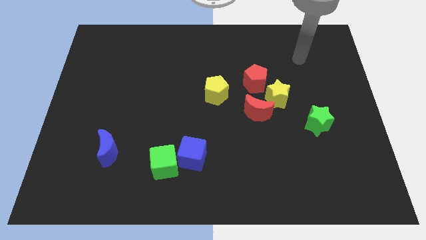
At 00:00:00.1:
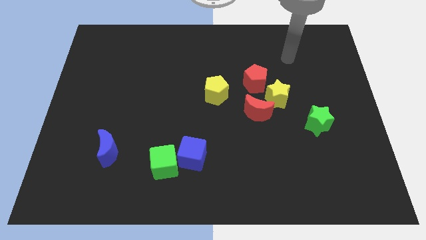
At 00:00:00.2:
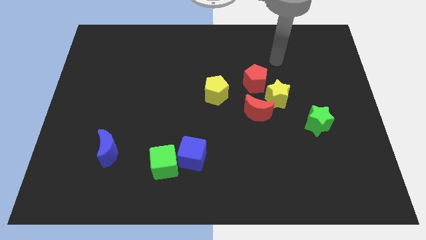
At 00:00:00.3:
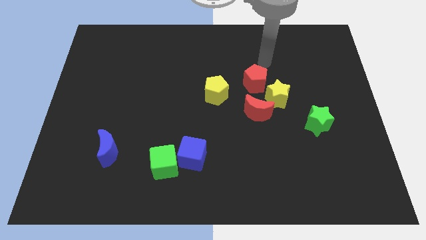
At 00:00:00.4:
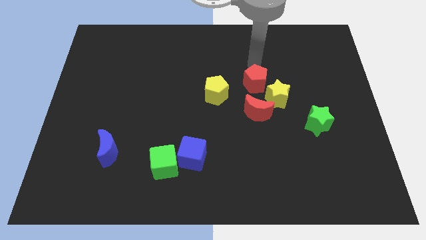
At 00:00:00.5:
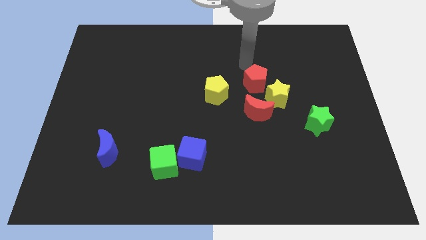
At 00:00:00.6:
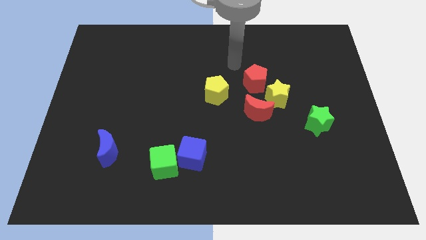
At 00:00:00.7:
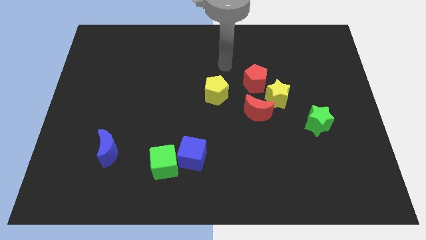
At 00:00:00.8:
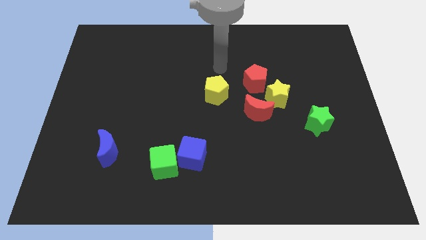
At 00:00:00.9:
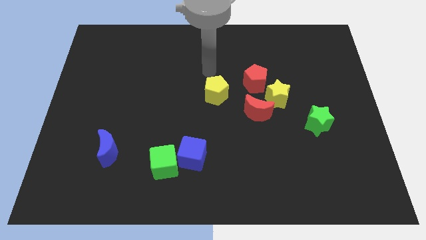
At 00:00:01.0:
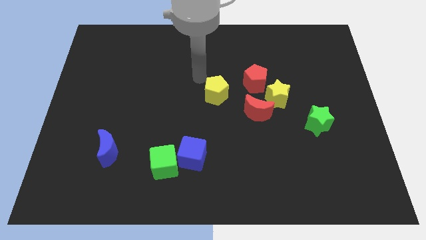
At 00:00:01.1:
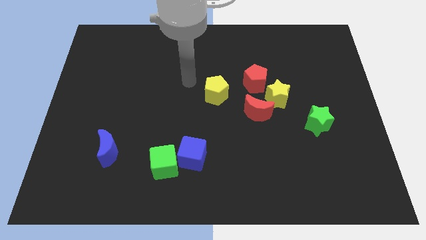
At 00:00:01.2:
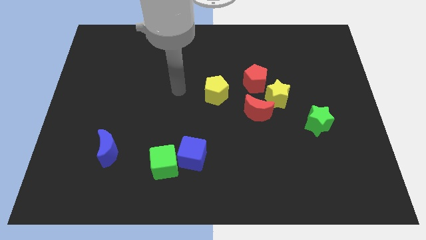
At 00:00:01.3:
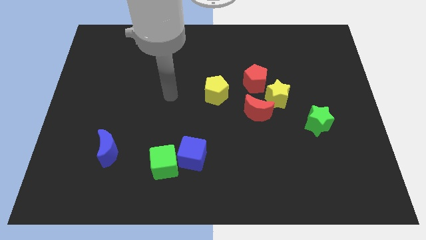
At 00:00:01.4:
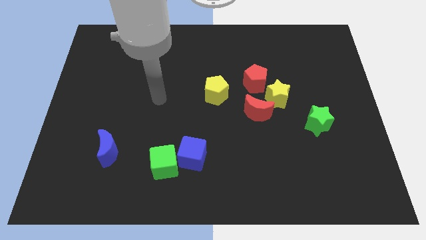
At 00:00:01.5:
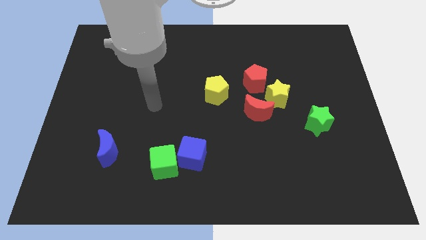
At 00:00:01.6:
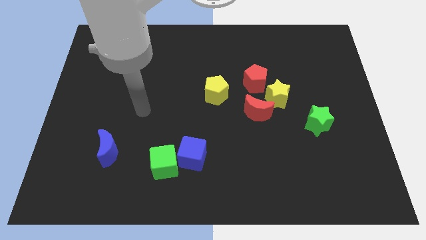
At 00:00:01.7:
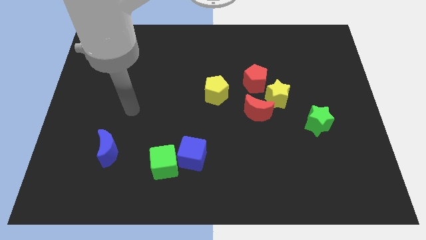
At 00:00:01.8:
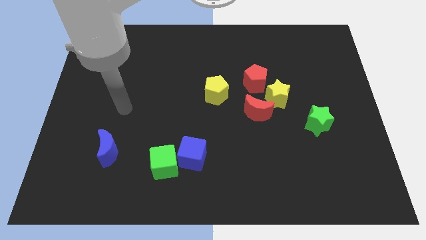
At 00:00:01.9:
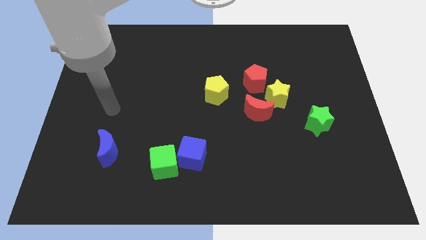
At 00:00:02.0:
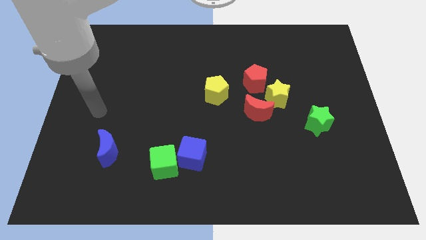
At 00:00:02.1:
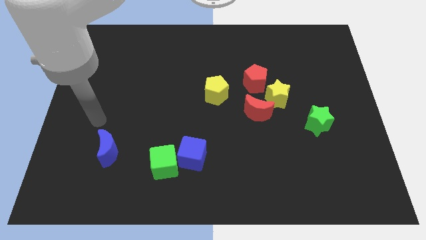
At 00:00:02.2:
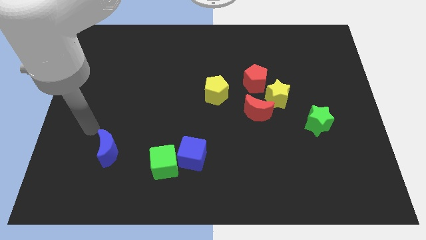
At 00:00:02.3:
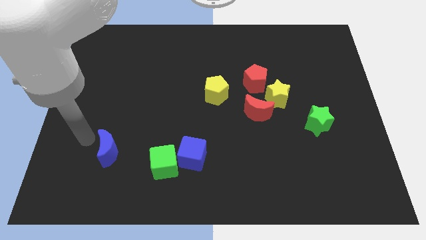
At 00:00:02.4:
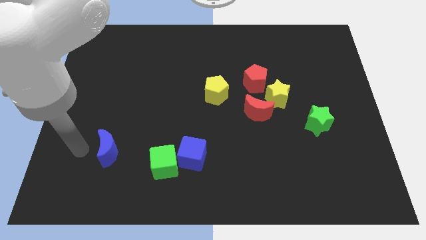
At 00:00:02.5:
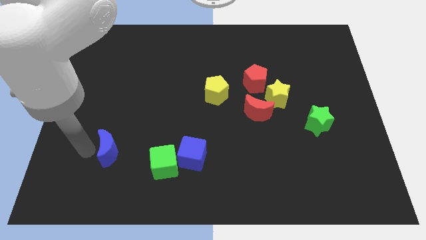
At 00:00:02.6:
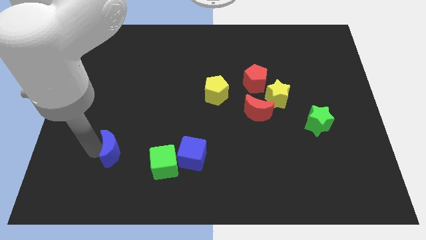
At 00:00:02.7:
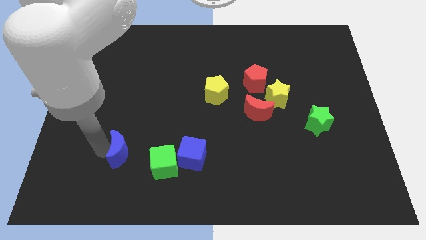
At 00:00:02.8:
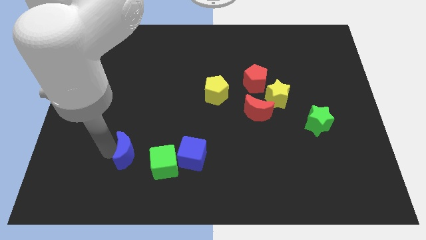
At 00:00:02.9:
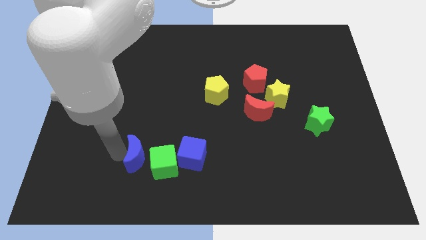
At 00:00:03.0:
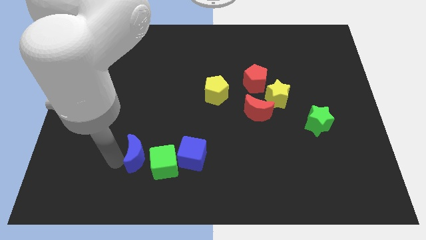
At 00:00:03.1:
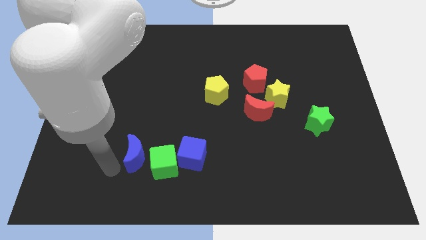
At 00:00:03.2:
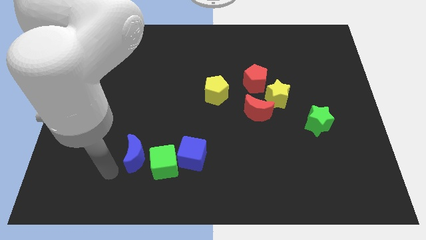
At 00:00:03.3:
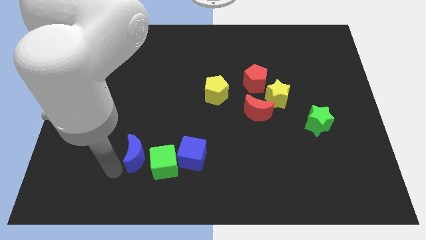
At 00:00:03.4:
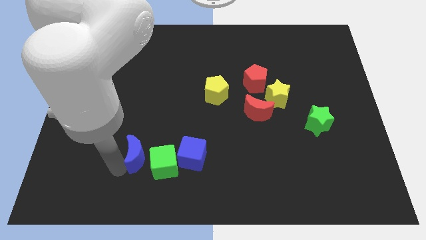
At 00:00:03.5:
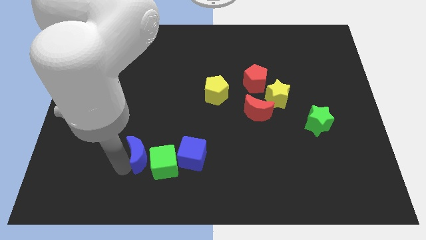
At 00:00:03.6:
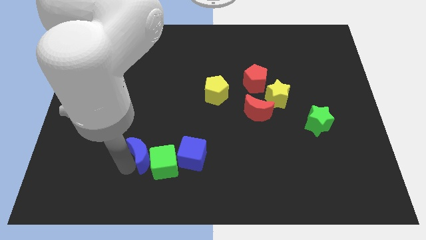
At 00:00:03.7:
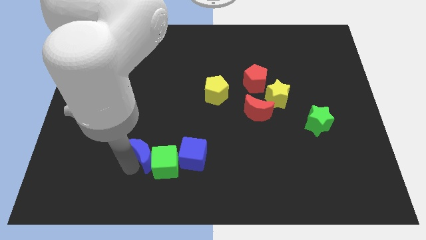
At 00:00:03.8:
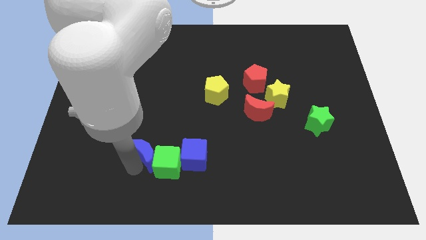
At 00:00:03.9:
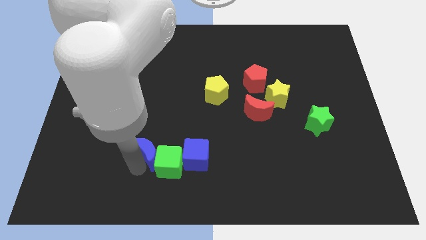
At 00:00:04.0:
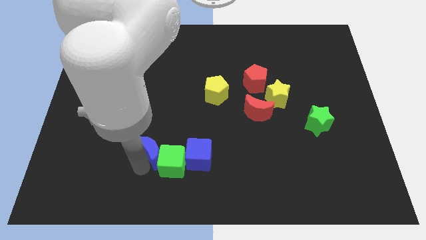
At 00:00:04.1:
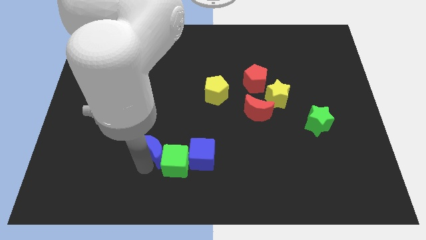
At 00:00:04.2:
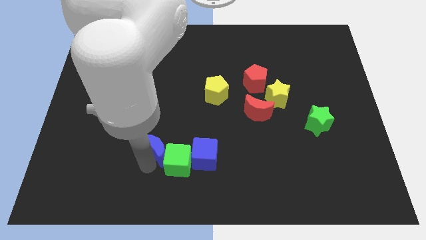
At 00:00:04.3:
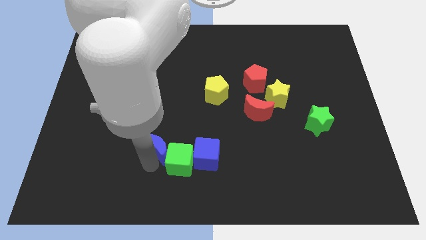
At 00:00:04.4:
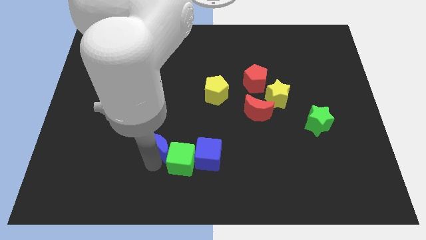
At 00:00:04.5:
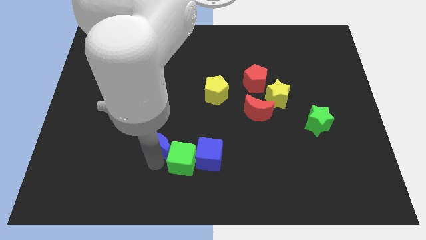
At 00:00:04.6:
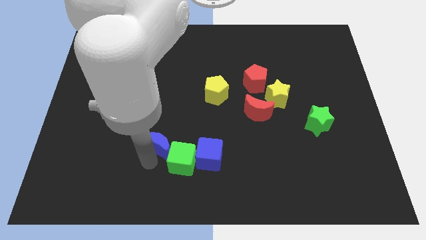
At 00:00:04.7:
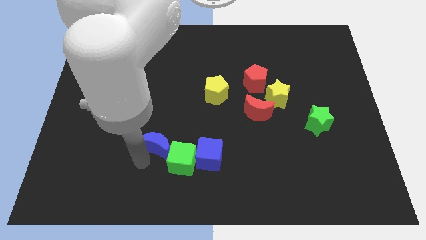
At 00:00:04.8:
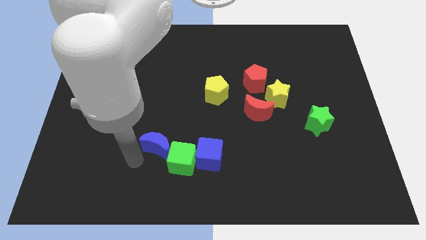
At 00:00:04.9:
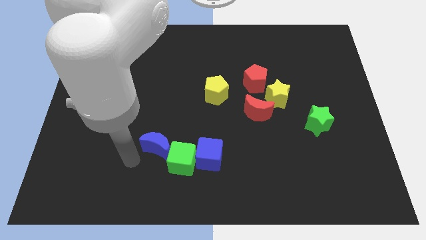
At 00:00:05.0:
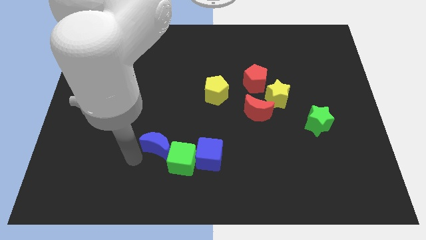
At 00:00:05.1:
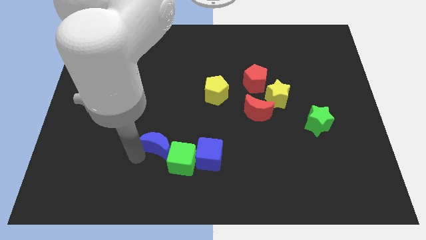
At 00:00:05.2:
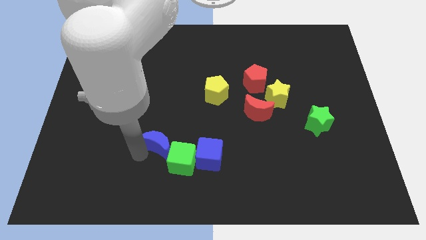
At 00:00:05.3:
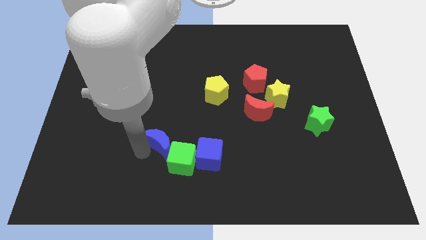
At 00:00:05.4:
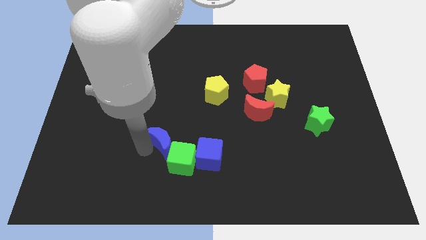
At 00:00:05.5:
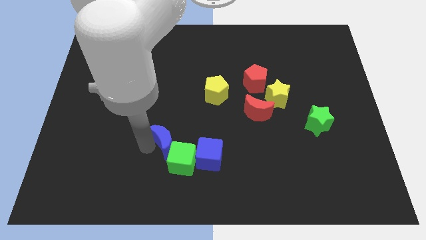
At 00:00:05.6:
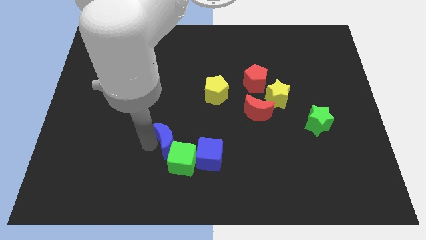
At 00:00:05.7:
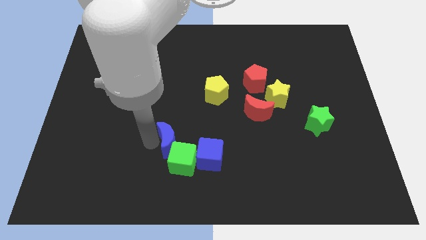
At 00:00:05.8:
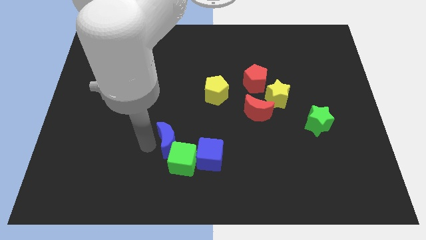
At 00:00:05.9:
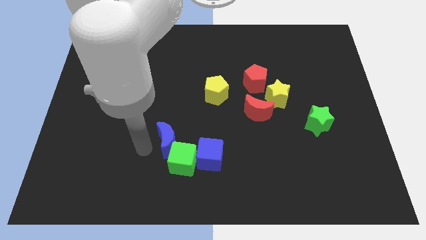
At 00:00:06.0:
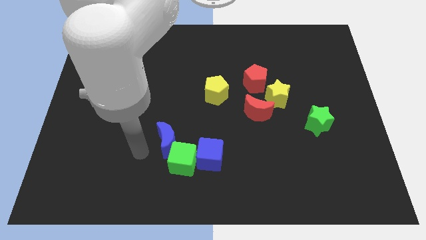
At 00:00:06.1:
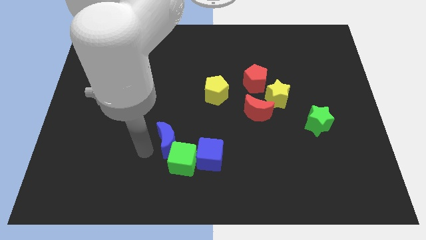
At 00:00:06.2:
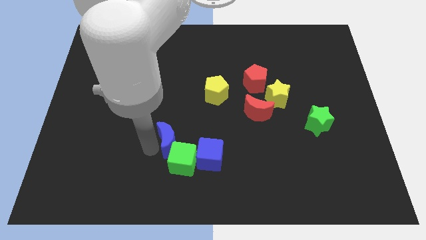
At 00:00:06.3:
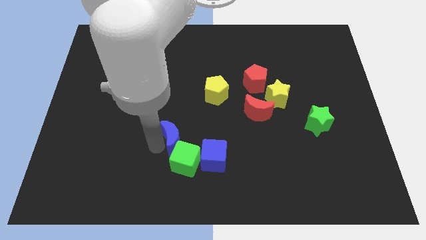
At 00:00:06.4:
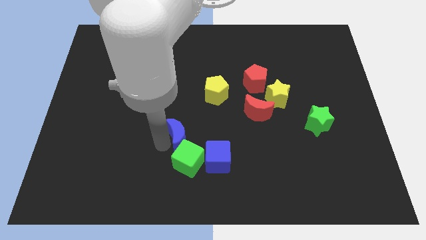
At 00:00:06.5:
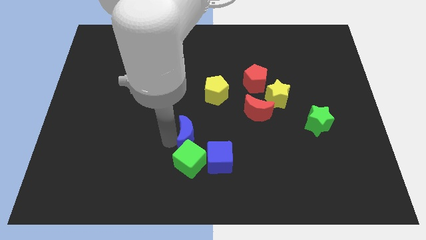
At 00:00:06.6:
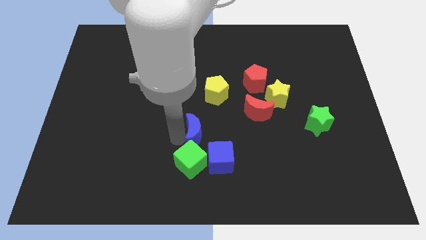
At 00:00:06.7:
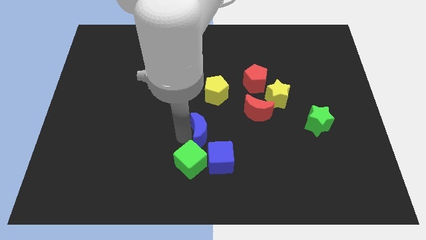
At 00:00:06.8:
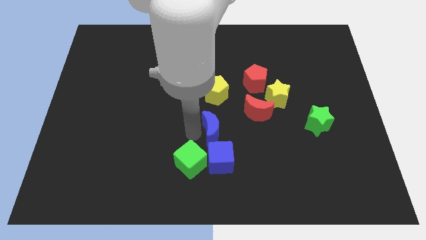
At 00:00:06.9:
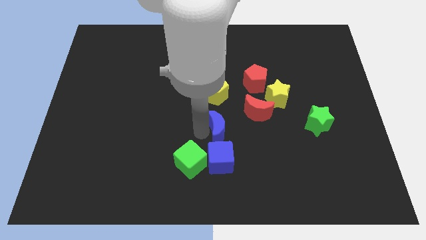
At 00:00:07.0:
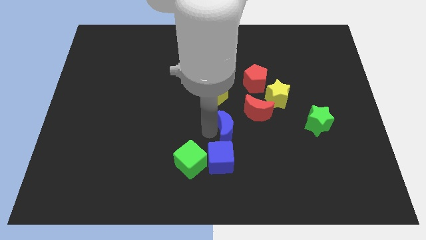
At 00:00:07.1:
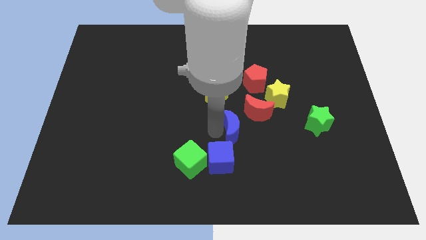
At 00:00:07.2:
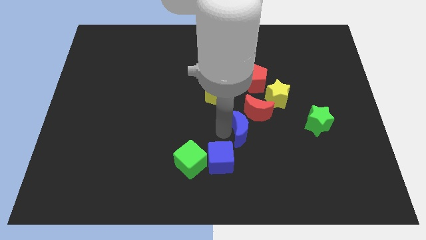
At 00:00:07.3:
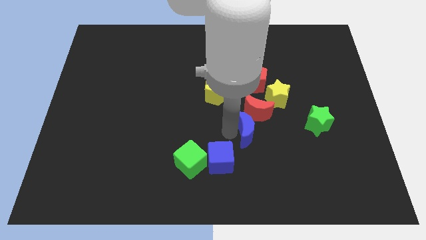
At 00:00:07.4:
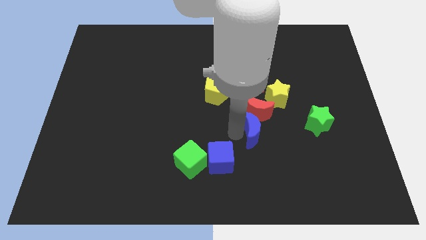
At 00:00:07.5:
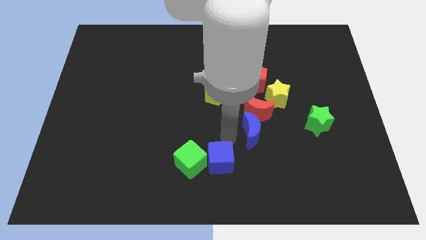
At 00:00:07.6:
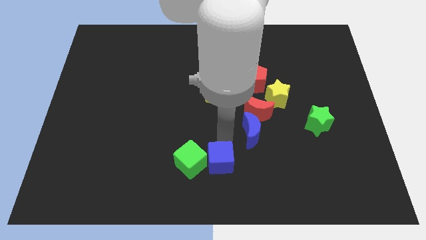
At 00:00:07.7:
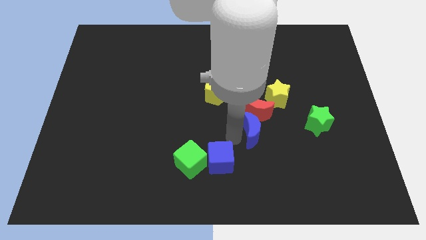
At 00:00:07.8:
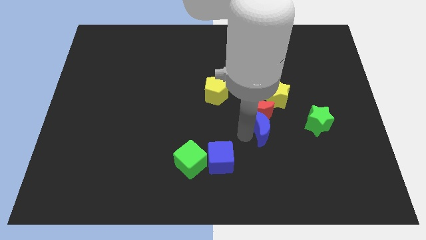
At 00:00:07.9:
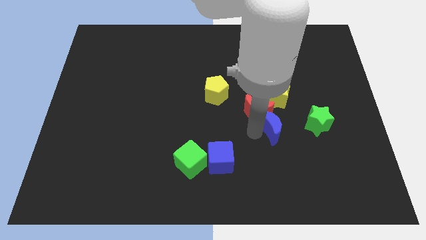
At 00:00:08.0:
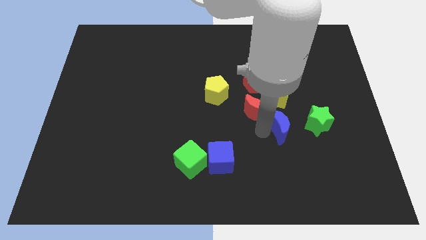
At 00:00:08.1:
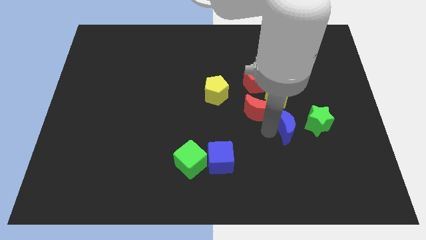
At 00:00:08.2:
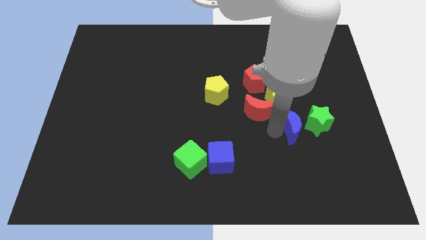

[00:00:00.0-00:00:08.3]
move the blue moon next to the green star
